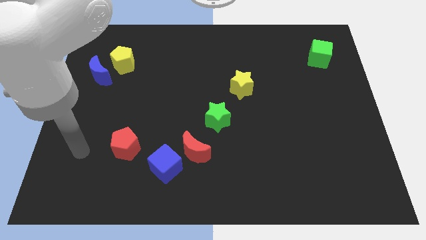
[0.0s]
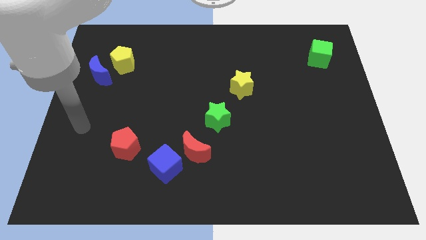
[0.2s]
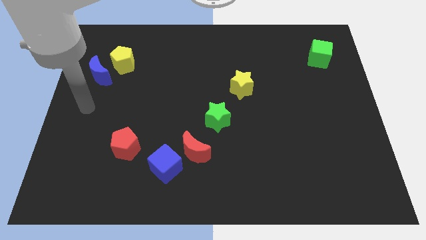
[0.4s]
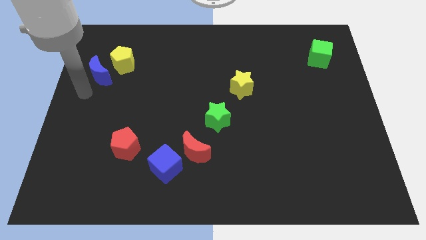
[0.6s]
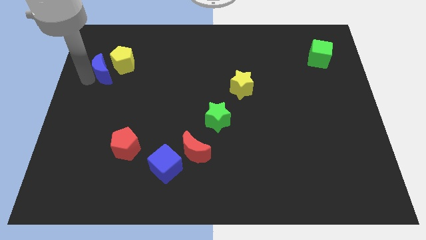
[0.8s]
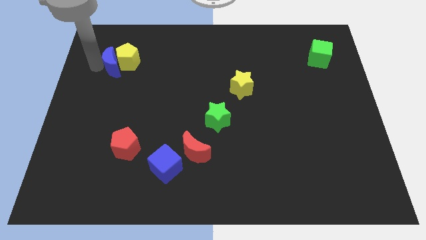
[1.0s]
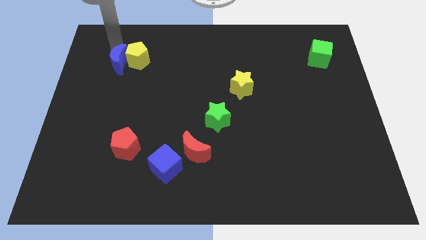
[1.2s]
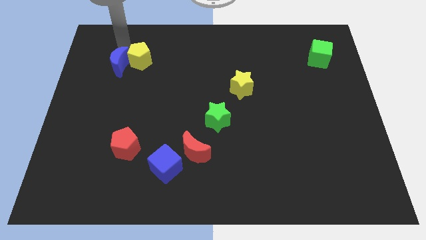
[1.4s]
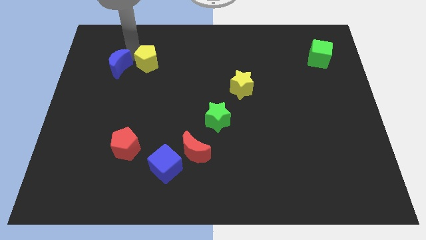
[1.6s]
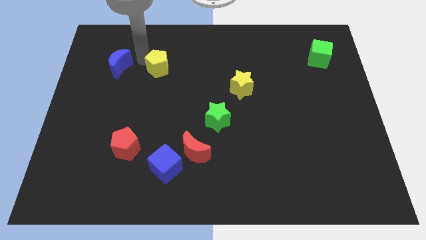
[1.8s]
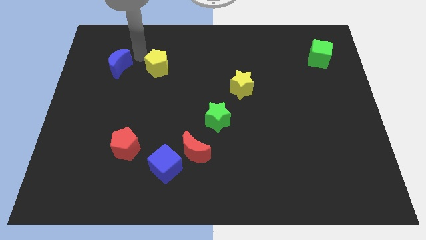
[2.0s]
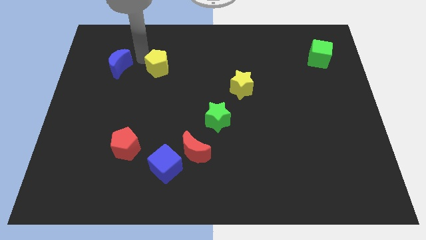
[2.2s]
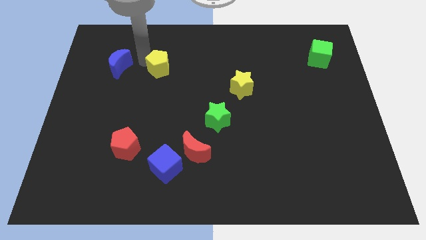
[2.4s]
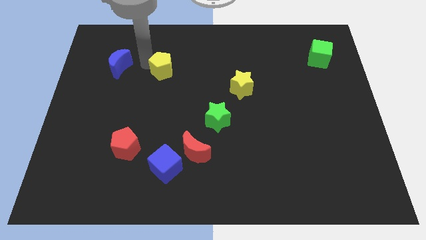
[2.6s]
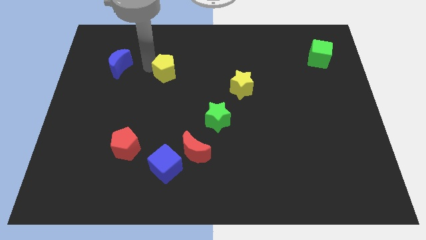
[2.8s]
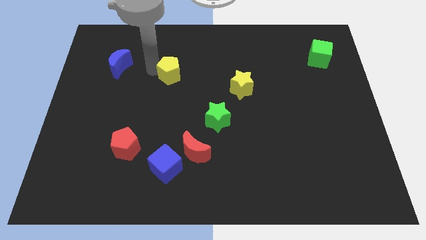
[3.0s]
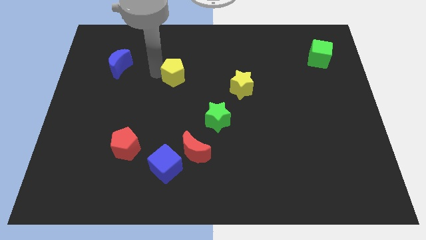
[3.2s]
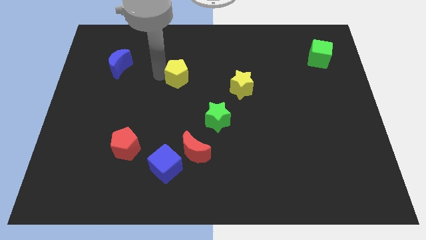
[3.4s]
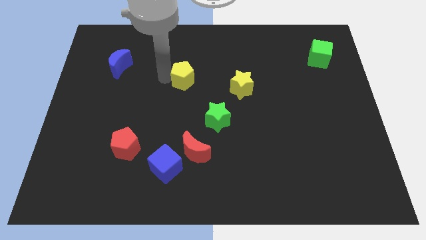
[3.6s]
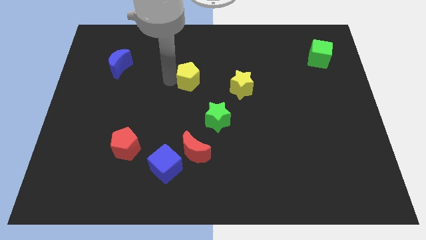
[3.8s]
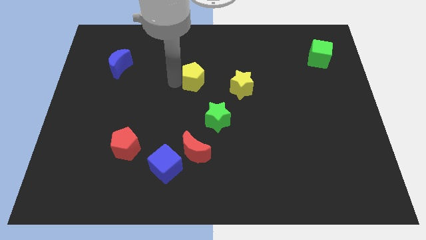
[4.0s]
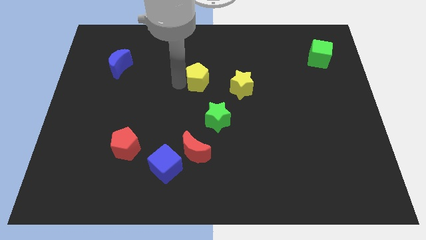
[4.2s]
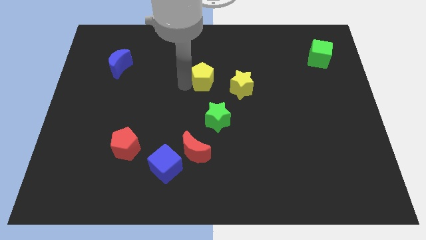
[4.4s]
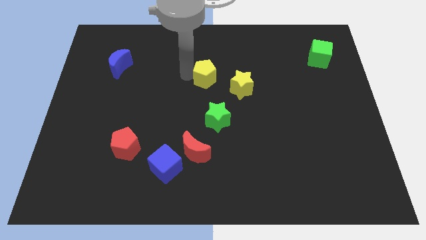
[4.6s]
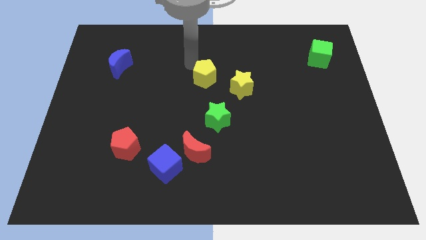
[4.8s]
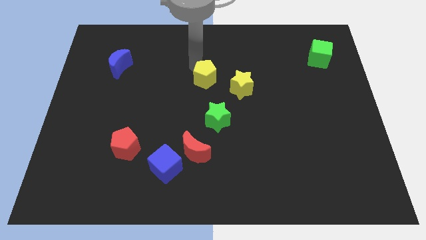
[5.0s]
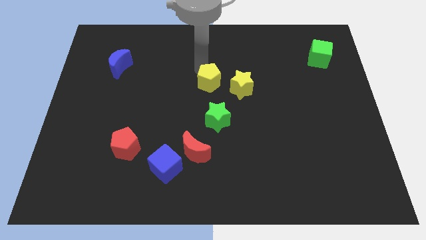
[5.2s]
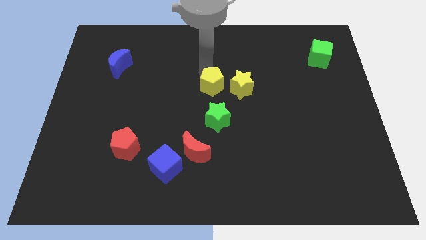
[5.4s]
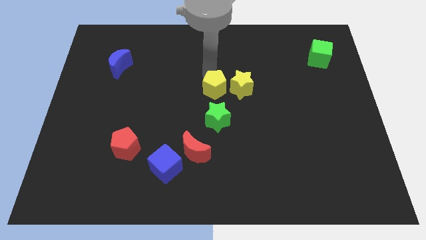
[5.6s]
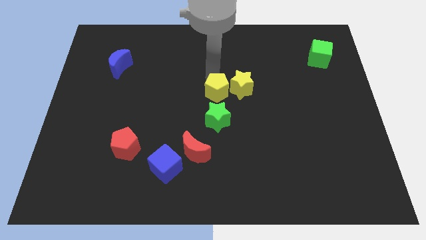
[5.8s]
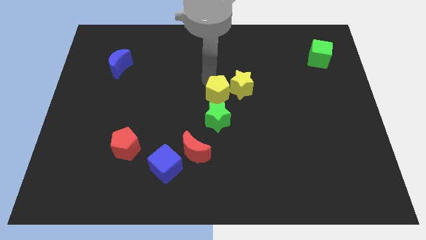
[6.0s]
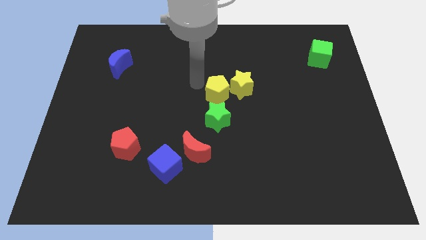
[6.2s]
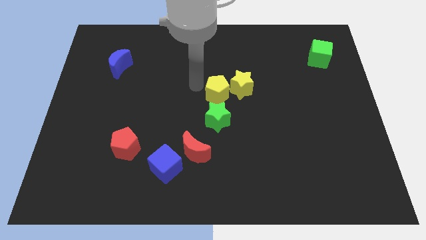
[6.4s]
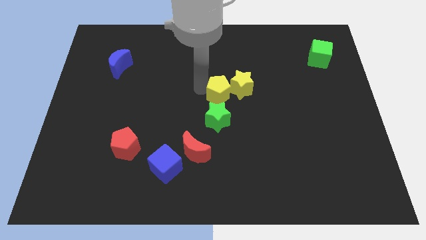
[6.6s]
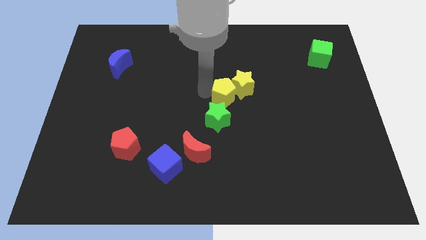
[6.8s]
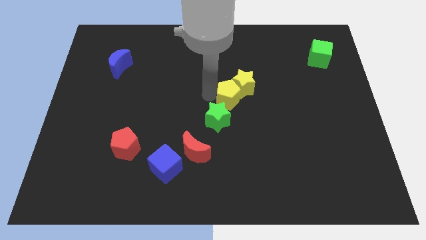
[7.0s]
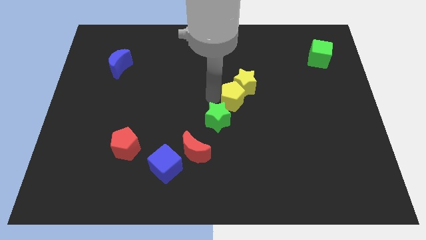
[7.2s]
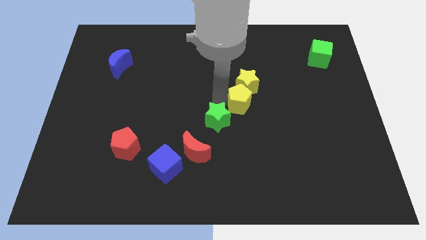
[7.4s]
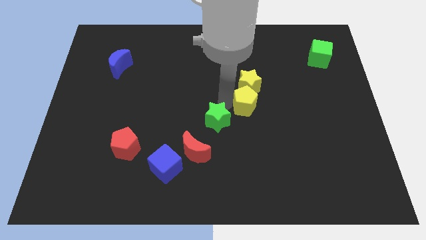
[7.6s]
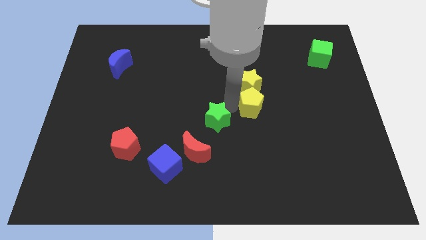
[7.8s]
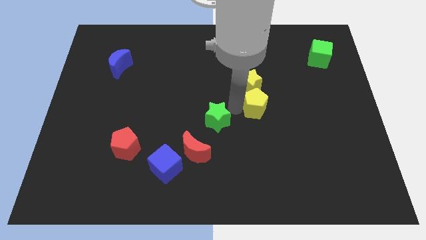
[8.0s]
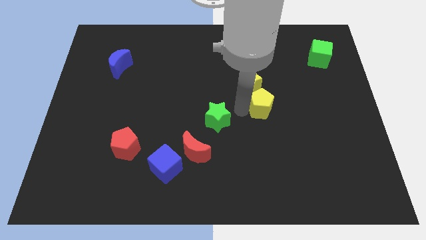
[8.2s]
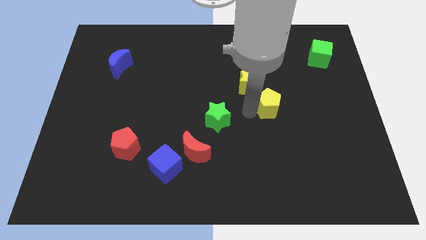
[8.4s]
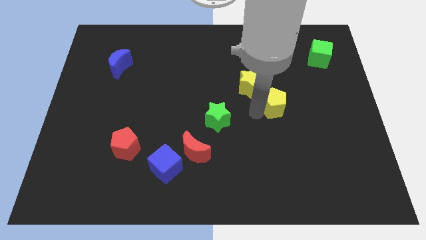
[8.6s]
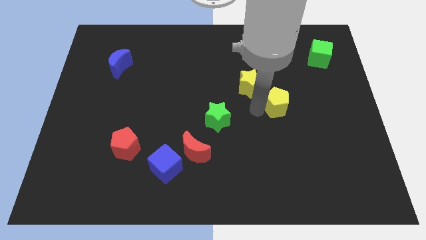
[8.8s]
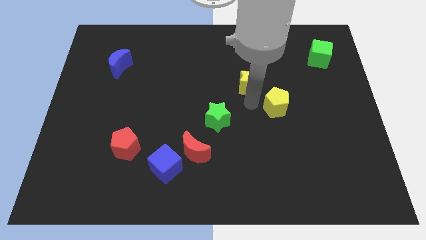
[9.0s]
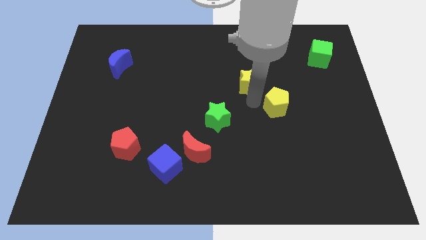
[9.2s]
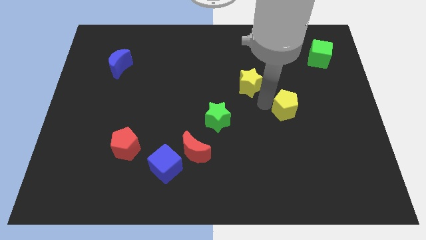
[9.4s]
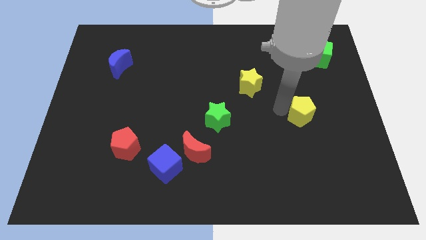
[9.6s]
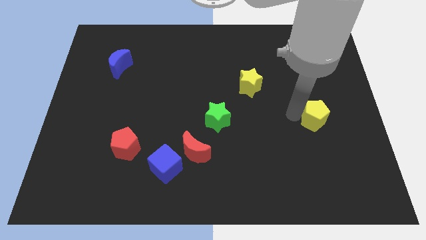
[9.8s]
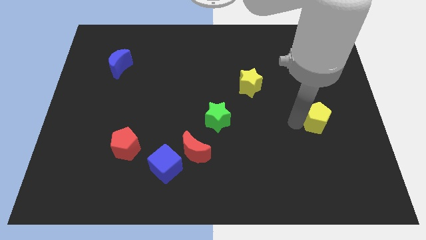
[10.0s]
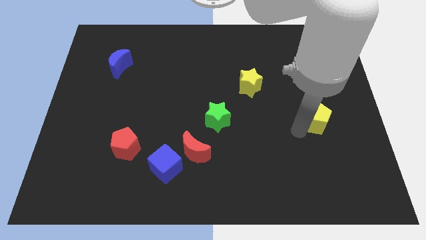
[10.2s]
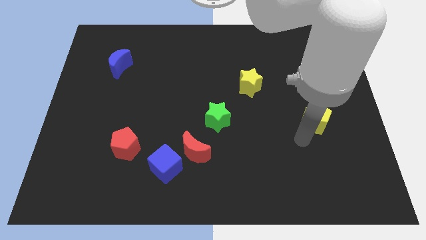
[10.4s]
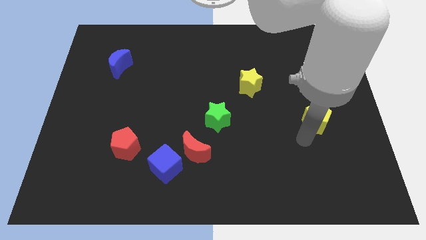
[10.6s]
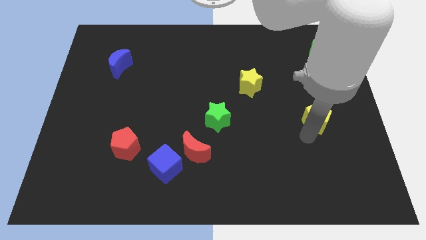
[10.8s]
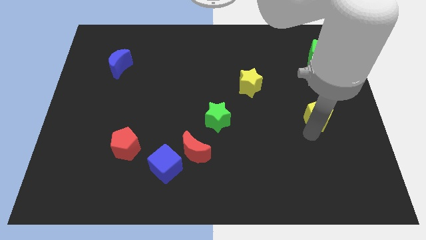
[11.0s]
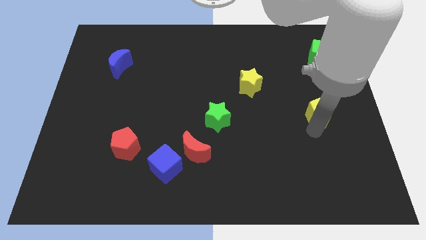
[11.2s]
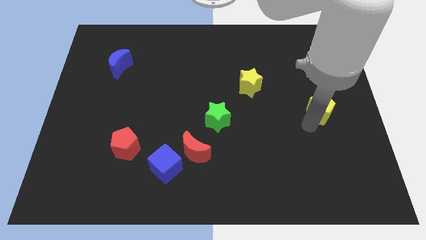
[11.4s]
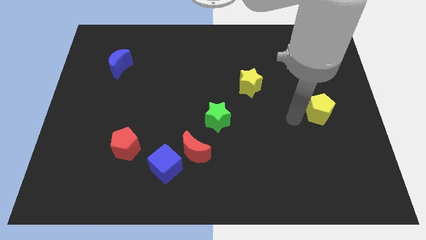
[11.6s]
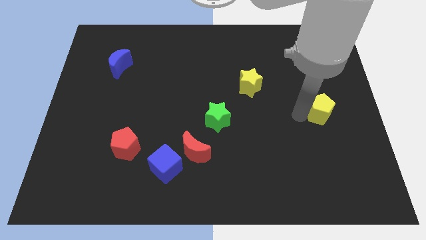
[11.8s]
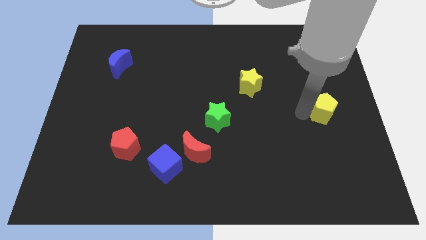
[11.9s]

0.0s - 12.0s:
put the yellow pentagon to the right side
